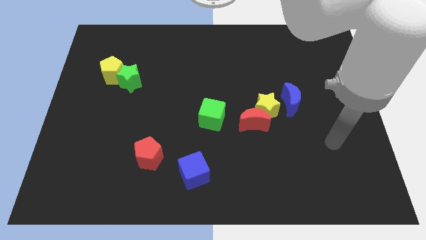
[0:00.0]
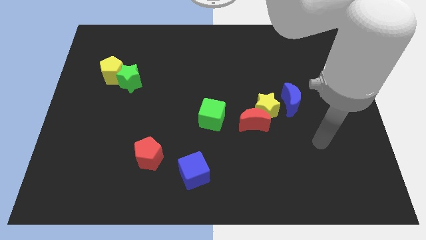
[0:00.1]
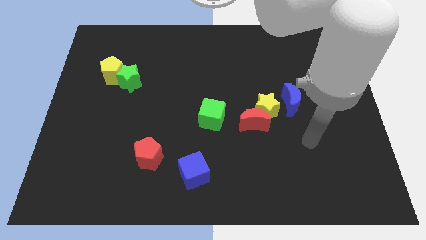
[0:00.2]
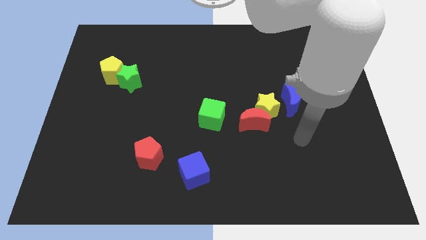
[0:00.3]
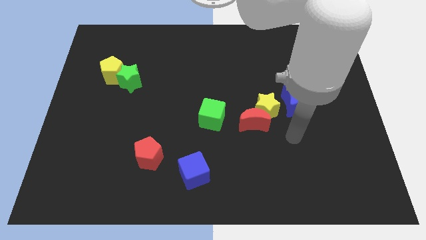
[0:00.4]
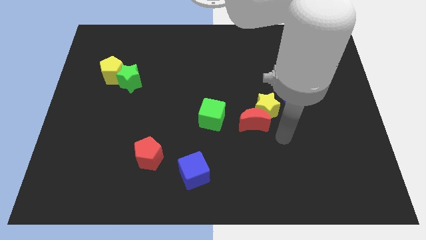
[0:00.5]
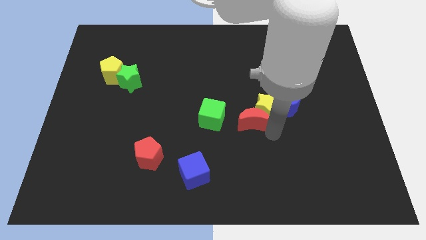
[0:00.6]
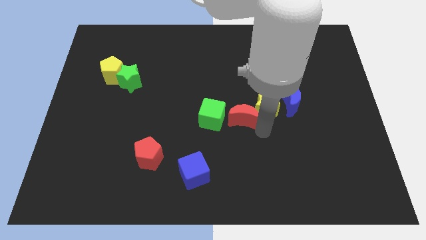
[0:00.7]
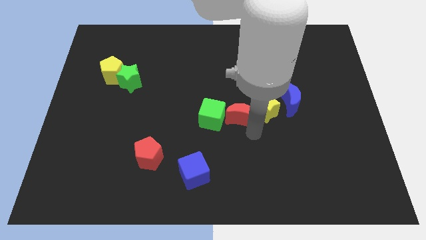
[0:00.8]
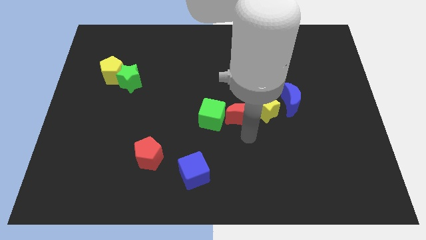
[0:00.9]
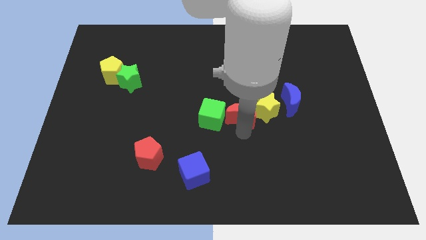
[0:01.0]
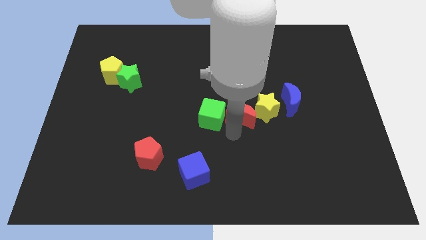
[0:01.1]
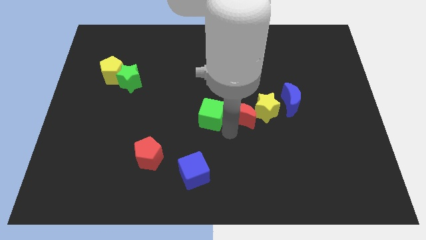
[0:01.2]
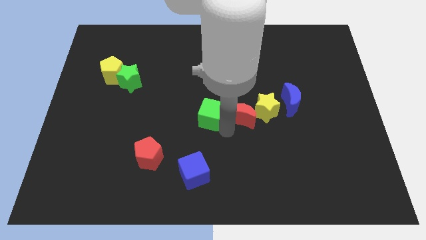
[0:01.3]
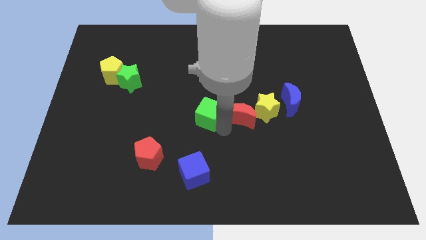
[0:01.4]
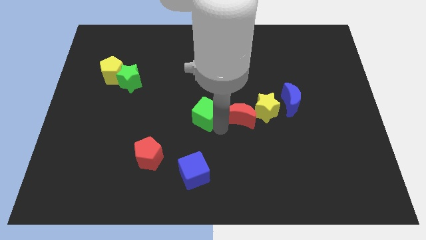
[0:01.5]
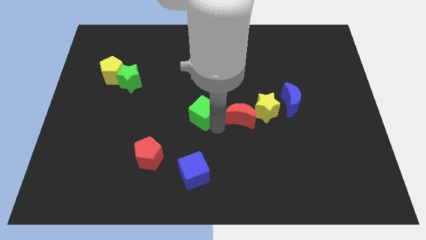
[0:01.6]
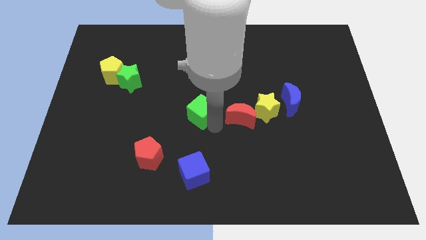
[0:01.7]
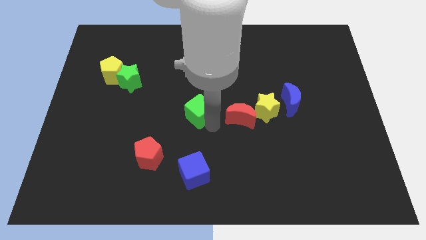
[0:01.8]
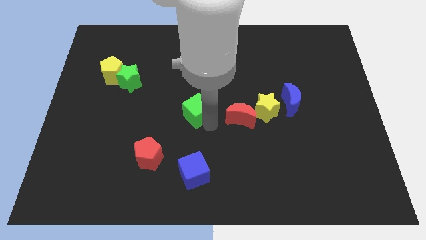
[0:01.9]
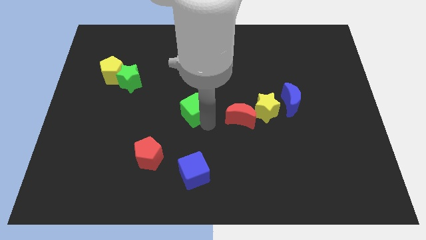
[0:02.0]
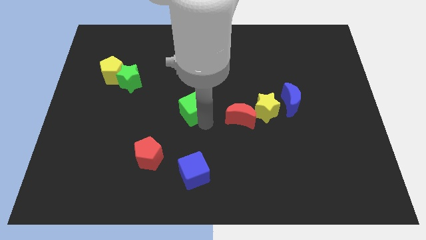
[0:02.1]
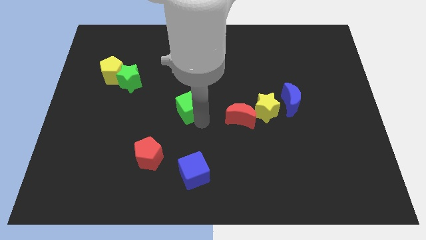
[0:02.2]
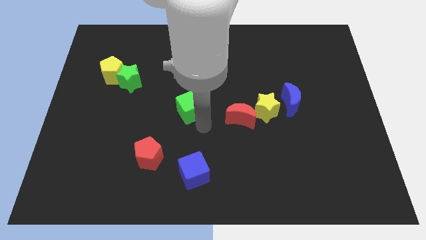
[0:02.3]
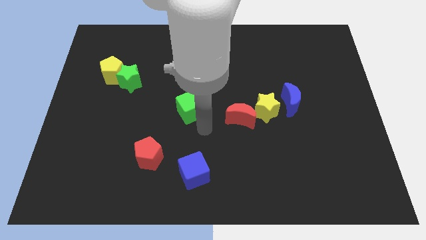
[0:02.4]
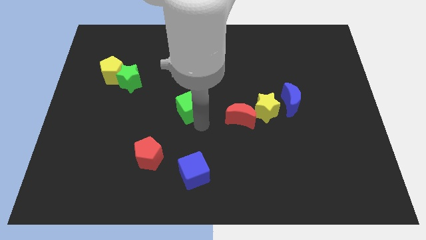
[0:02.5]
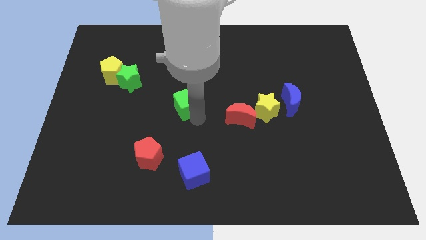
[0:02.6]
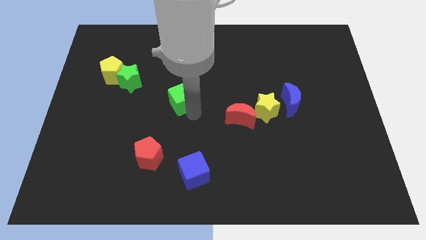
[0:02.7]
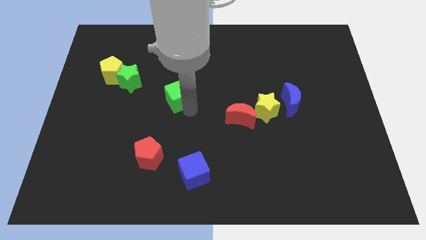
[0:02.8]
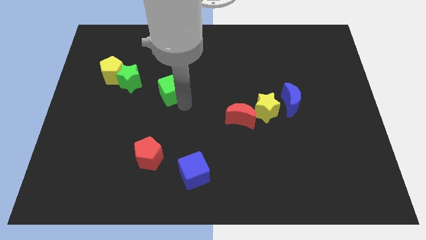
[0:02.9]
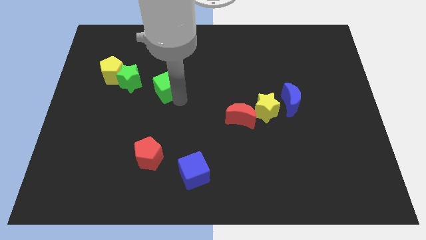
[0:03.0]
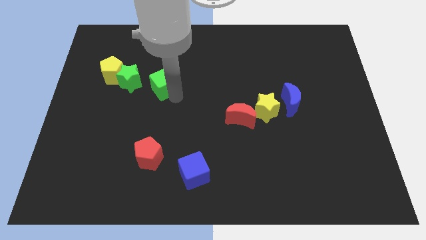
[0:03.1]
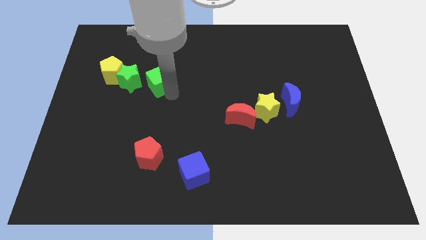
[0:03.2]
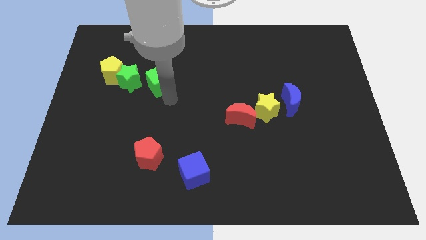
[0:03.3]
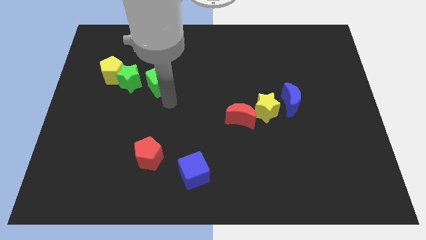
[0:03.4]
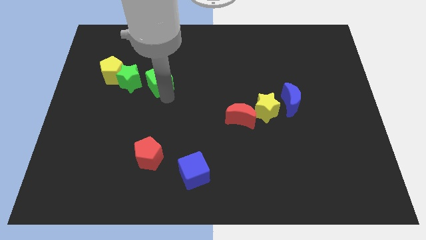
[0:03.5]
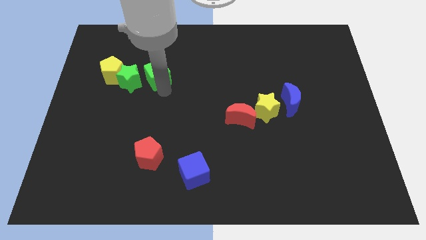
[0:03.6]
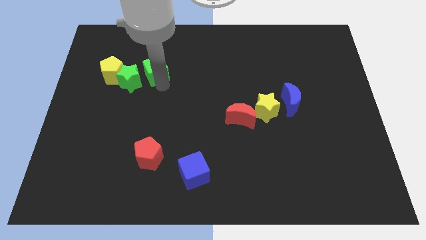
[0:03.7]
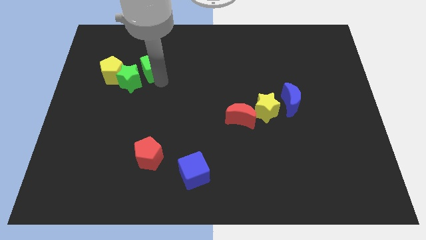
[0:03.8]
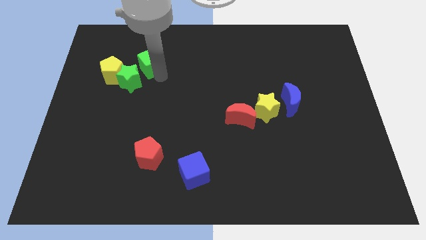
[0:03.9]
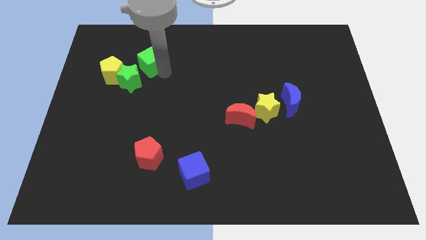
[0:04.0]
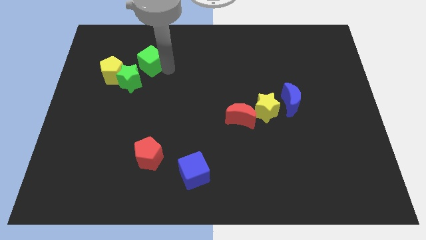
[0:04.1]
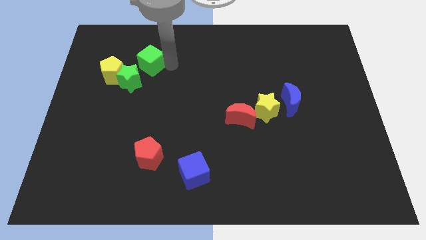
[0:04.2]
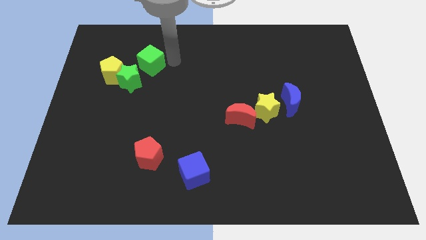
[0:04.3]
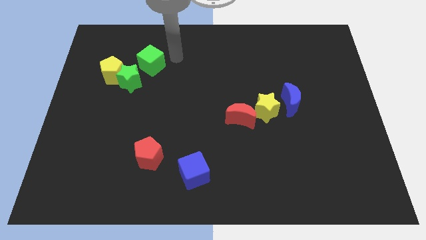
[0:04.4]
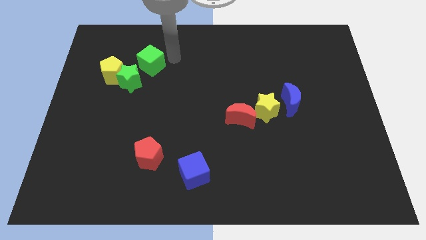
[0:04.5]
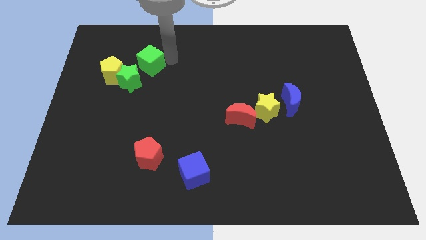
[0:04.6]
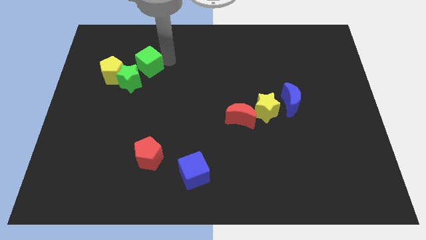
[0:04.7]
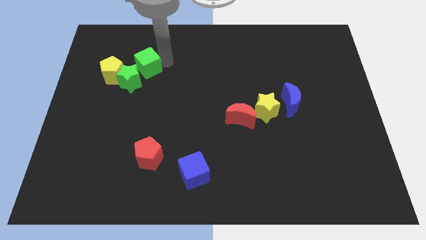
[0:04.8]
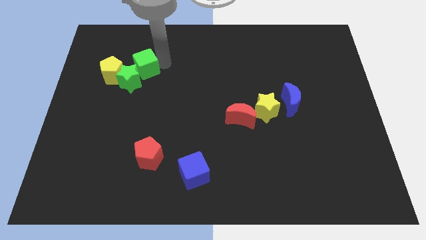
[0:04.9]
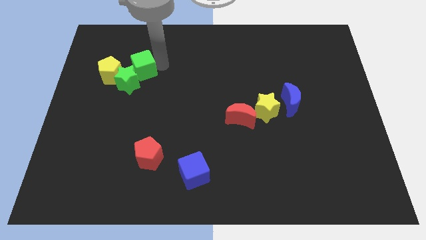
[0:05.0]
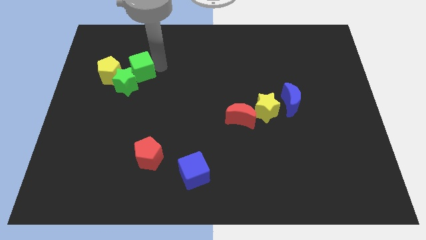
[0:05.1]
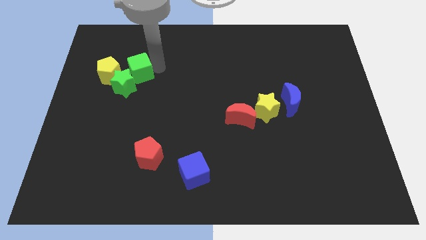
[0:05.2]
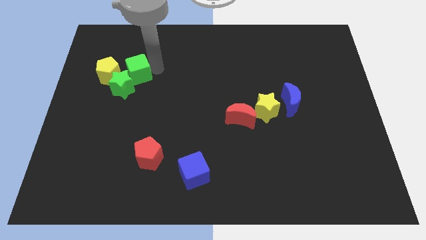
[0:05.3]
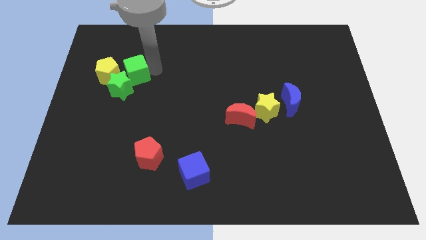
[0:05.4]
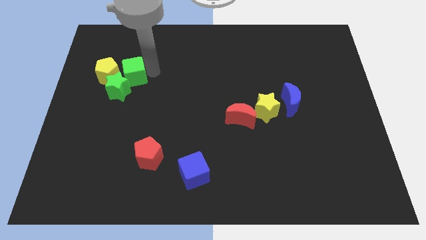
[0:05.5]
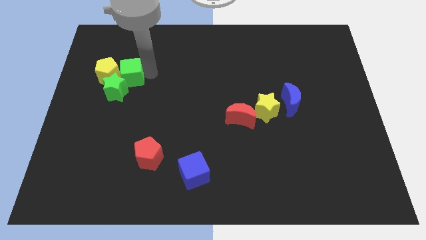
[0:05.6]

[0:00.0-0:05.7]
push the green cube to the yellow pentagon

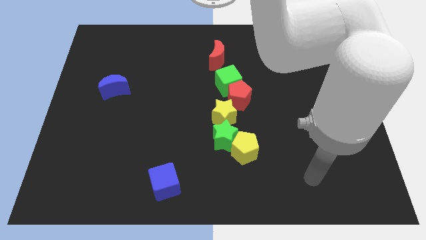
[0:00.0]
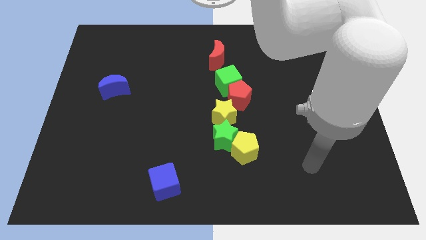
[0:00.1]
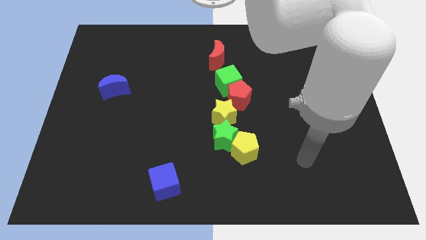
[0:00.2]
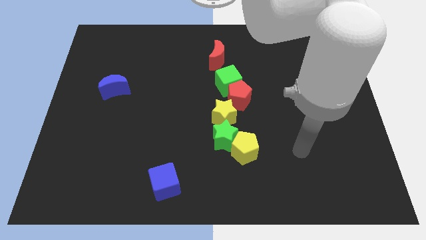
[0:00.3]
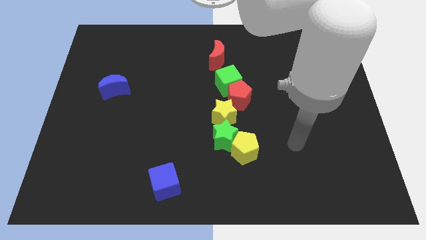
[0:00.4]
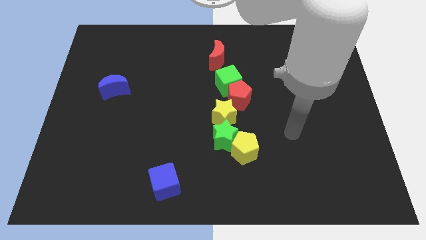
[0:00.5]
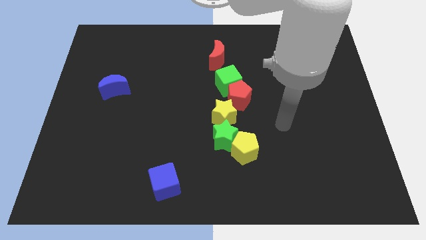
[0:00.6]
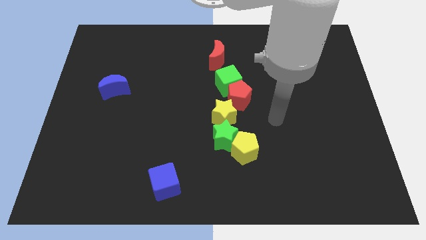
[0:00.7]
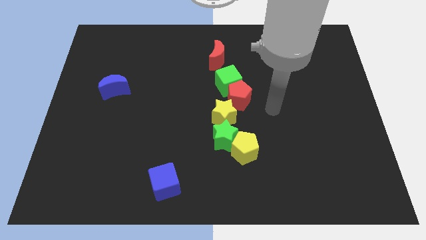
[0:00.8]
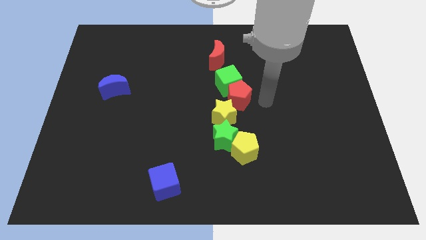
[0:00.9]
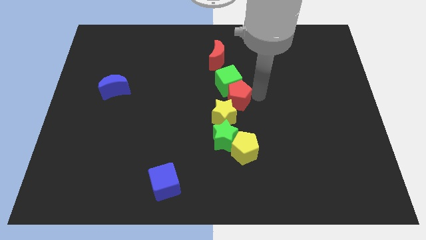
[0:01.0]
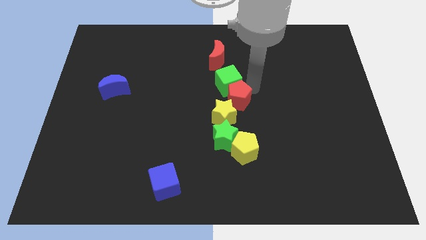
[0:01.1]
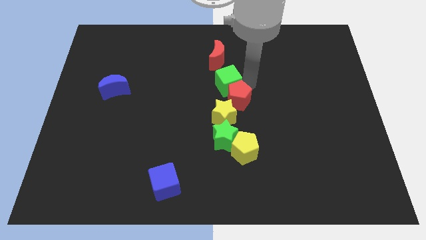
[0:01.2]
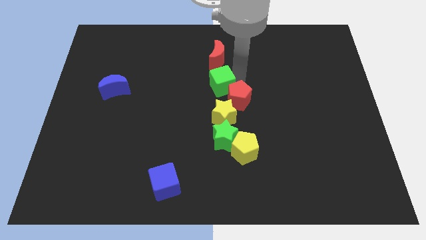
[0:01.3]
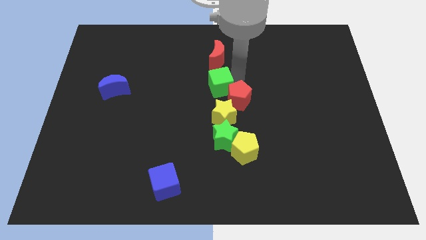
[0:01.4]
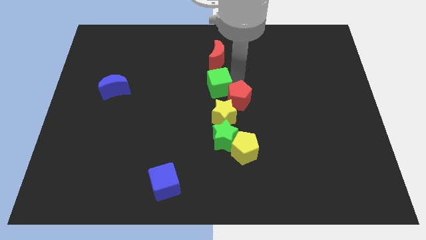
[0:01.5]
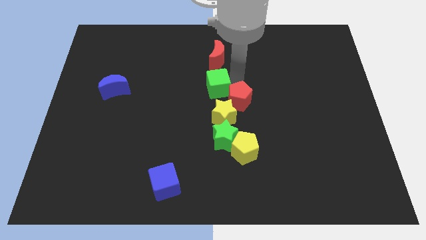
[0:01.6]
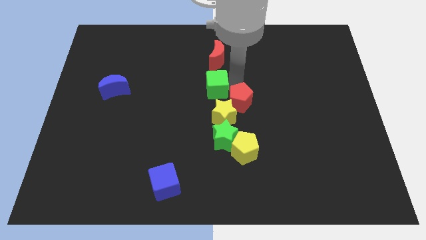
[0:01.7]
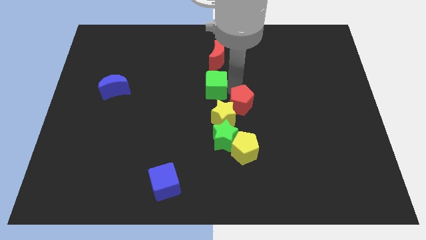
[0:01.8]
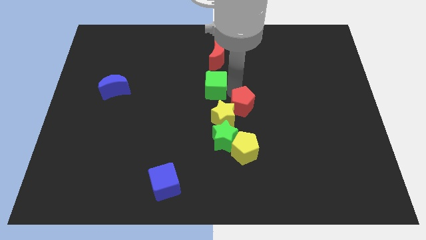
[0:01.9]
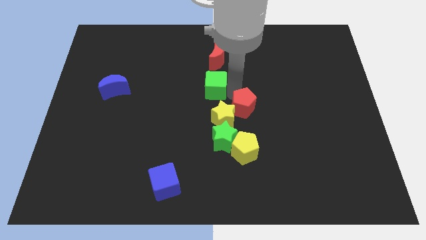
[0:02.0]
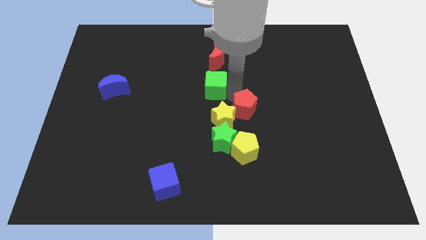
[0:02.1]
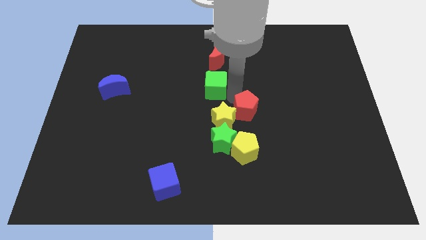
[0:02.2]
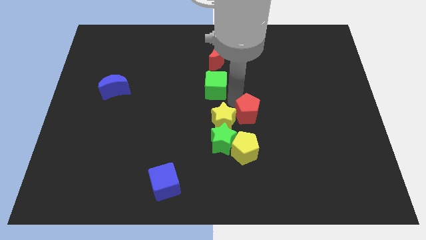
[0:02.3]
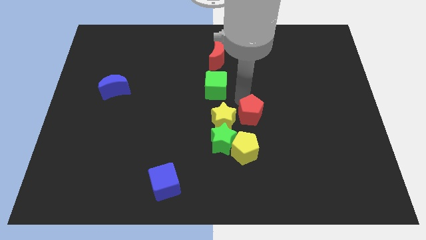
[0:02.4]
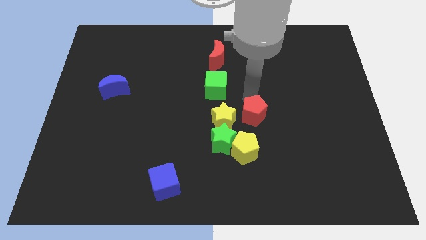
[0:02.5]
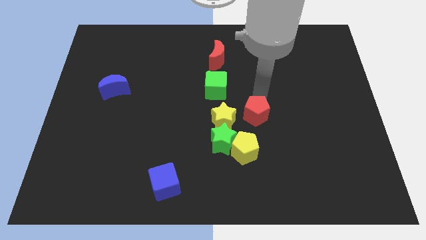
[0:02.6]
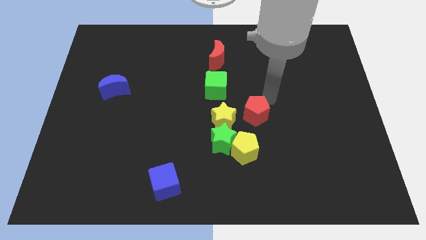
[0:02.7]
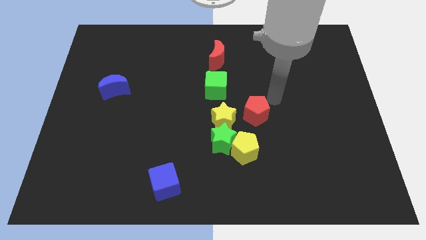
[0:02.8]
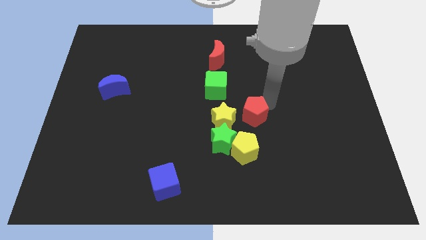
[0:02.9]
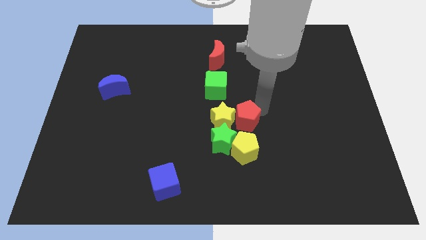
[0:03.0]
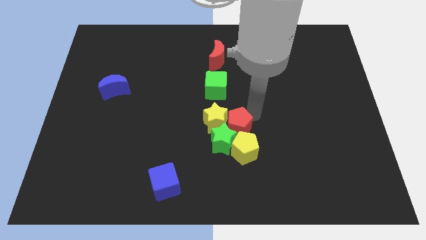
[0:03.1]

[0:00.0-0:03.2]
slide the red pentagon next to the green star
